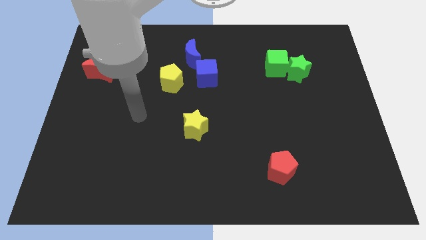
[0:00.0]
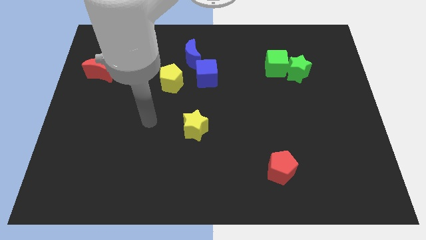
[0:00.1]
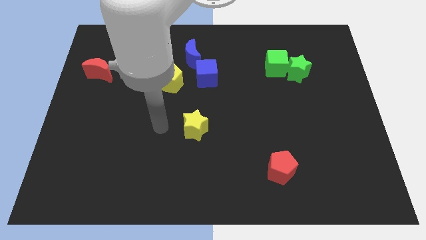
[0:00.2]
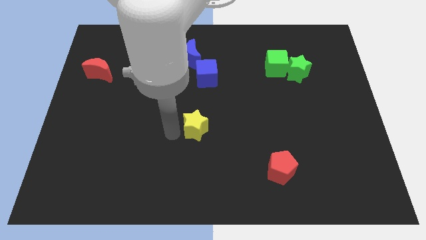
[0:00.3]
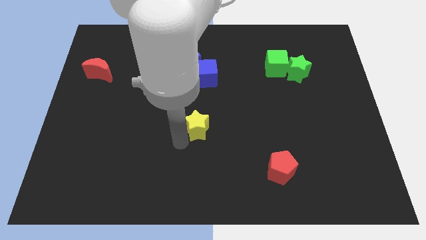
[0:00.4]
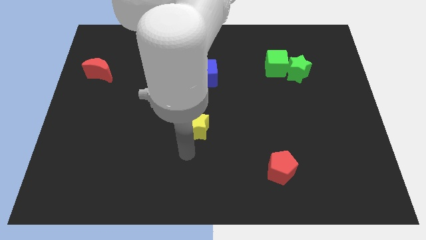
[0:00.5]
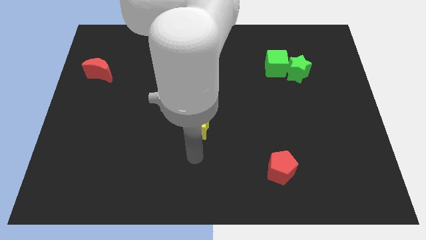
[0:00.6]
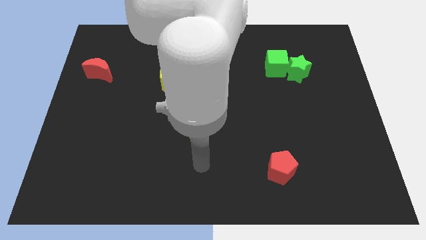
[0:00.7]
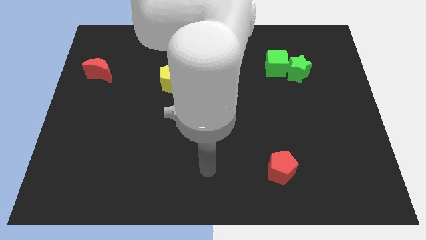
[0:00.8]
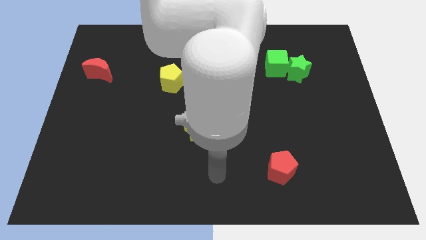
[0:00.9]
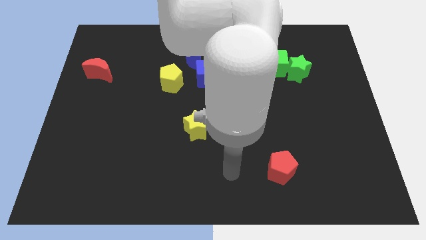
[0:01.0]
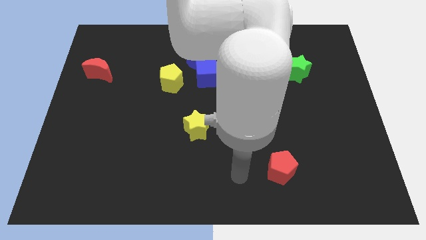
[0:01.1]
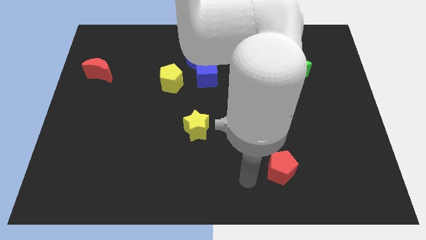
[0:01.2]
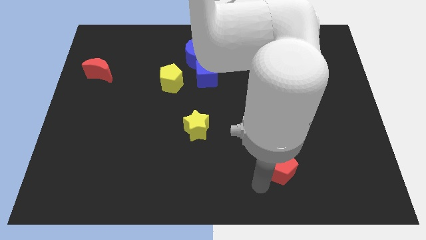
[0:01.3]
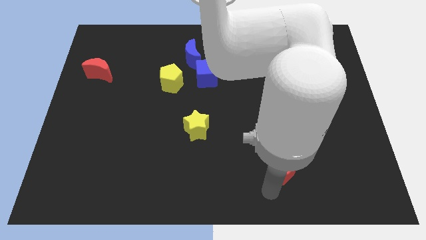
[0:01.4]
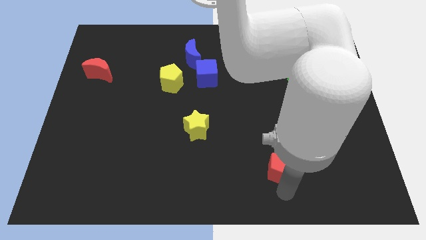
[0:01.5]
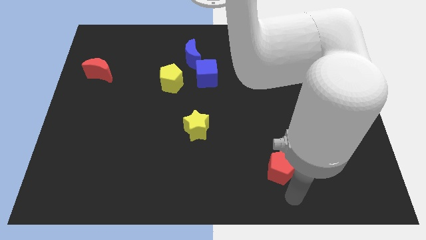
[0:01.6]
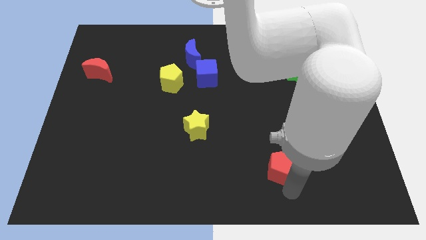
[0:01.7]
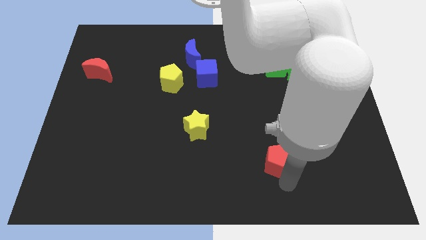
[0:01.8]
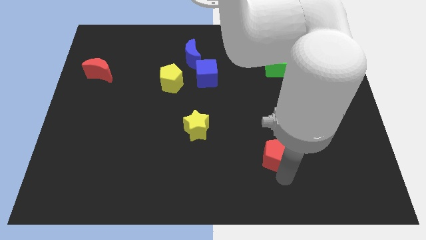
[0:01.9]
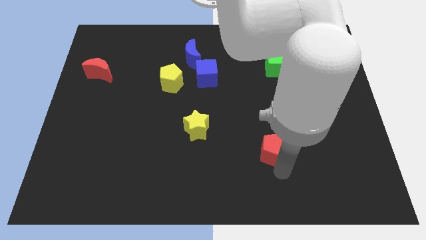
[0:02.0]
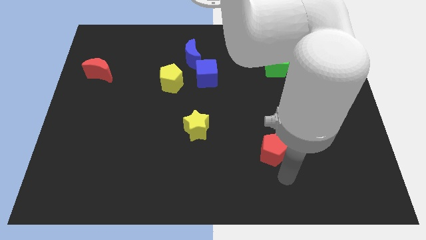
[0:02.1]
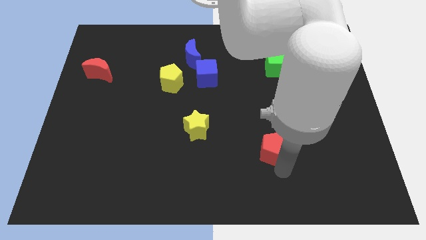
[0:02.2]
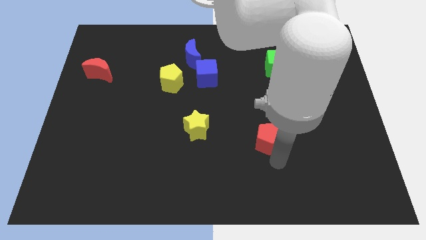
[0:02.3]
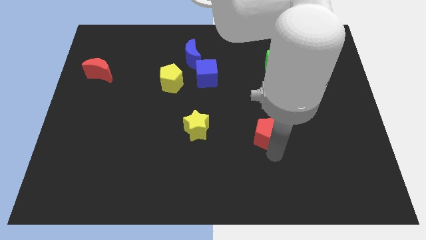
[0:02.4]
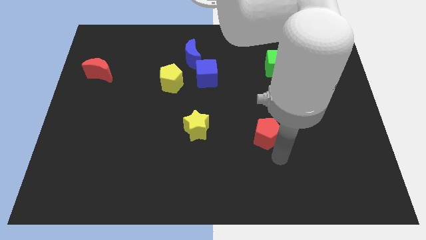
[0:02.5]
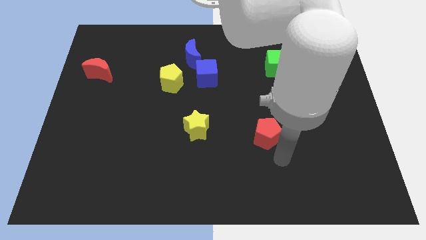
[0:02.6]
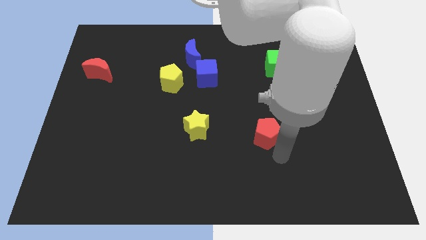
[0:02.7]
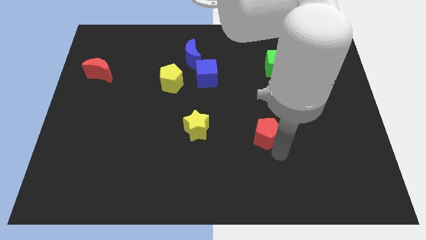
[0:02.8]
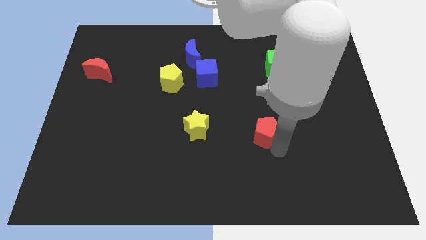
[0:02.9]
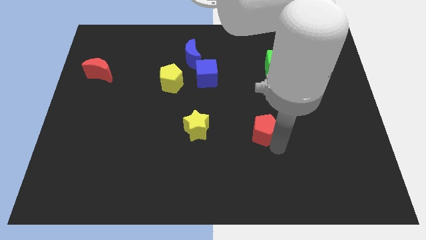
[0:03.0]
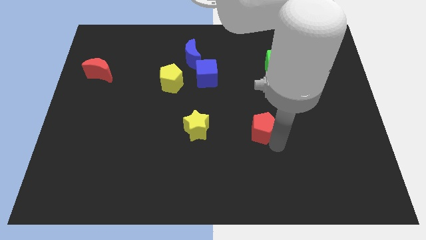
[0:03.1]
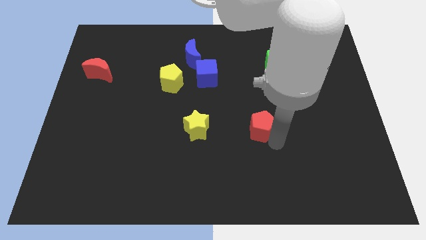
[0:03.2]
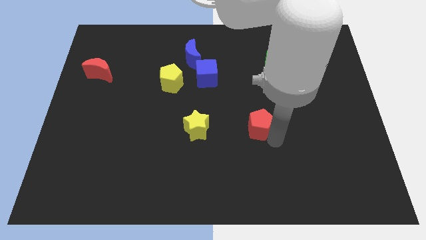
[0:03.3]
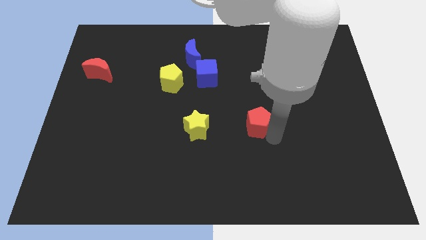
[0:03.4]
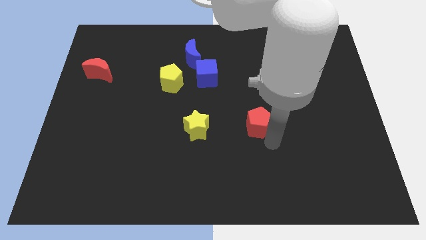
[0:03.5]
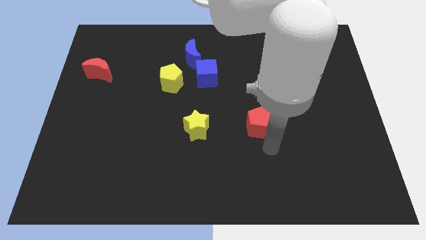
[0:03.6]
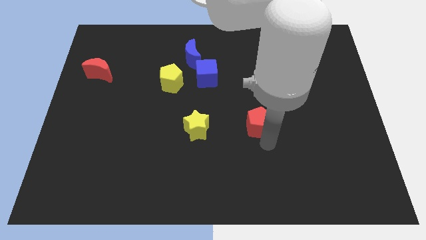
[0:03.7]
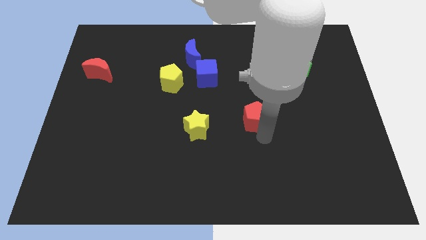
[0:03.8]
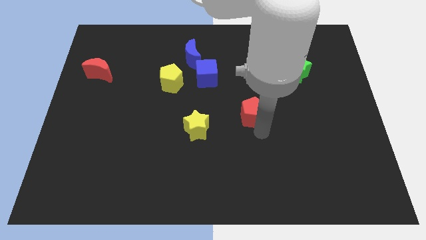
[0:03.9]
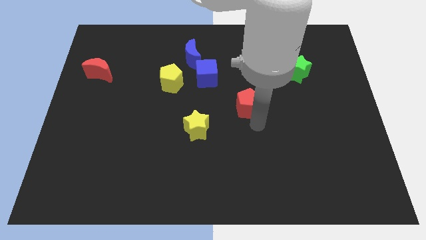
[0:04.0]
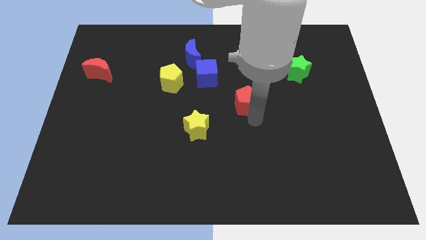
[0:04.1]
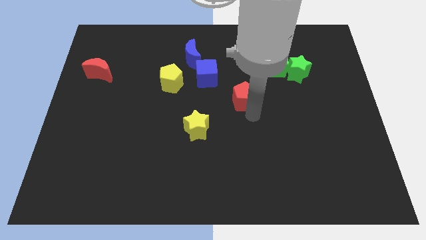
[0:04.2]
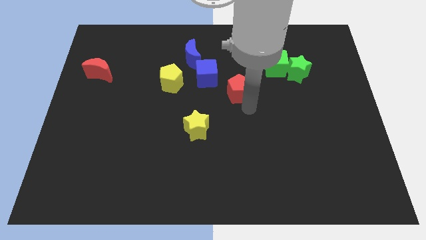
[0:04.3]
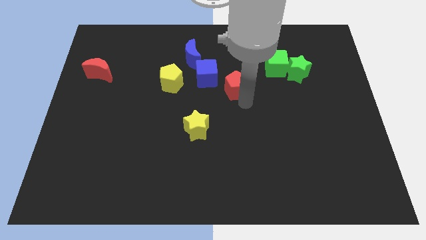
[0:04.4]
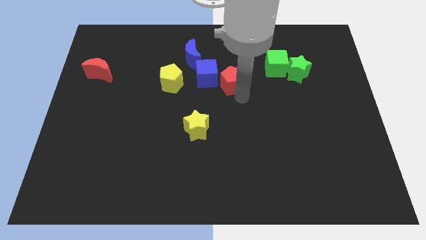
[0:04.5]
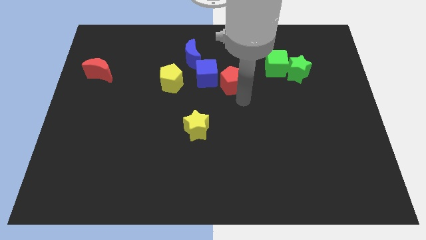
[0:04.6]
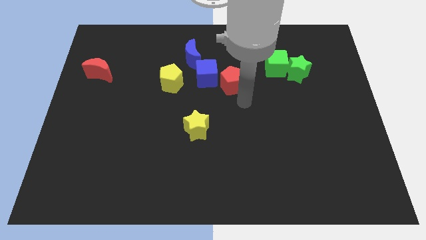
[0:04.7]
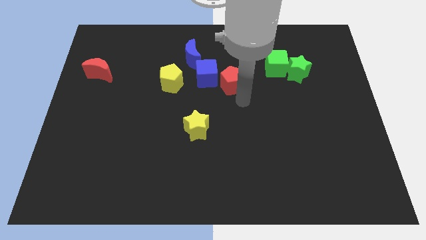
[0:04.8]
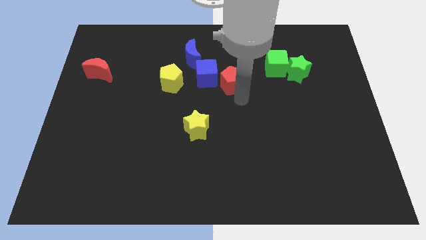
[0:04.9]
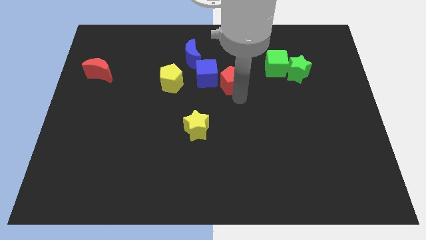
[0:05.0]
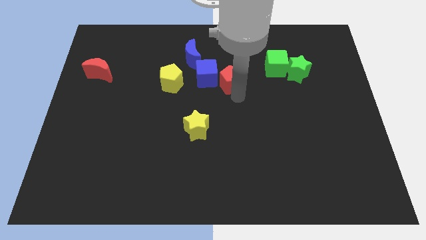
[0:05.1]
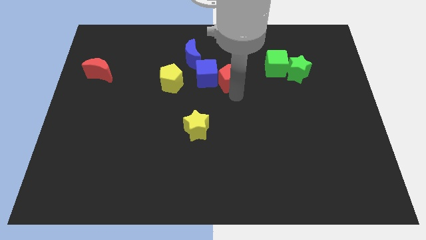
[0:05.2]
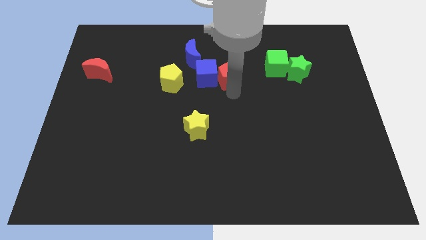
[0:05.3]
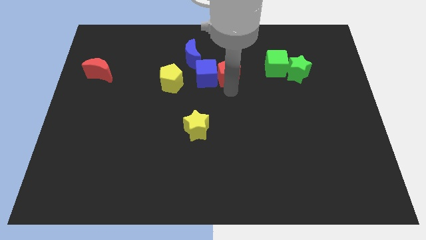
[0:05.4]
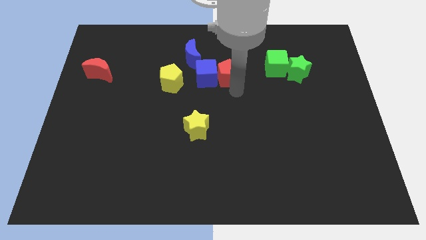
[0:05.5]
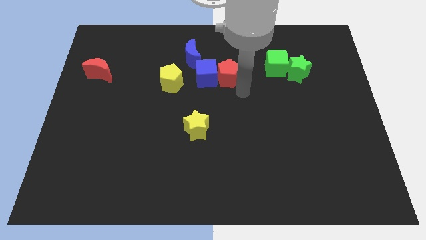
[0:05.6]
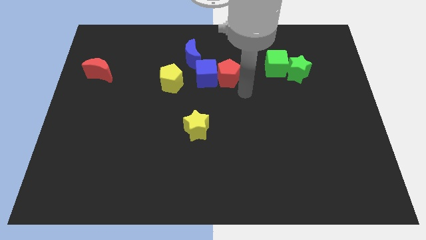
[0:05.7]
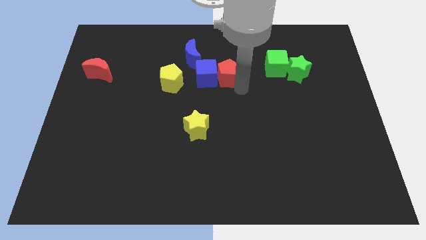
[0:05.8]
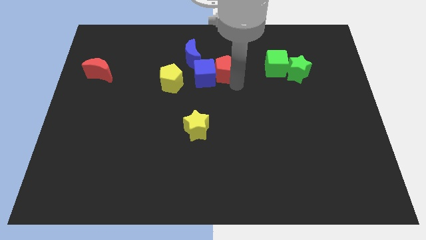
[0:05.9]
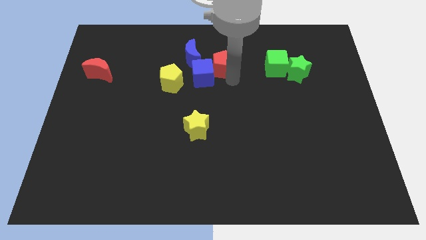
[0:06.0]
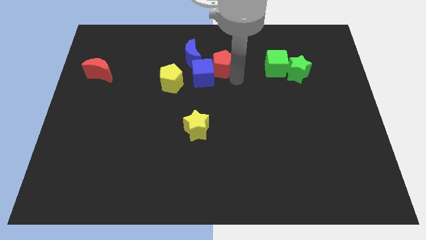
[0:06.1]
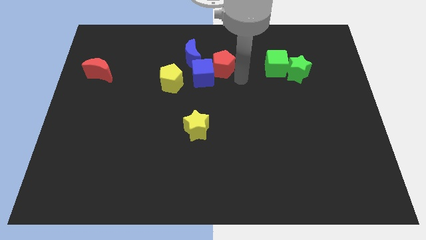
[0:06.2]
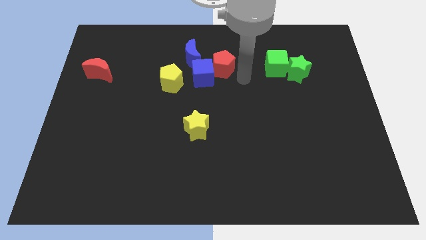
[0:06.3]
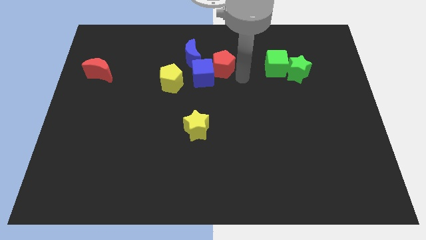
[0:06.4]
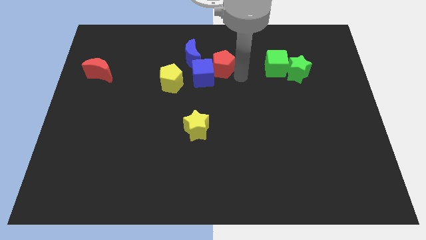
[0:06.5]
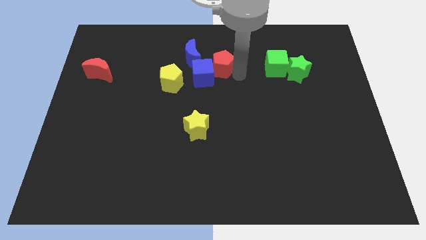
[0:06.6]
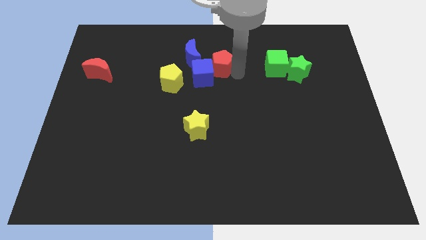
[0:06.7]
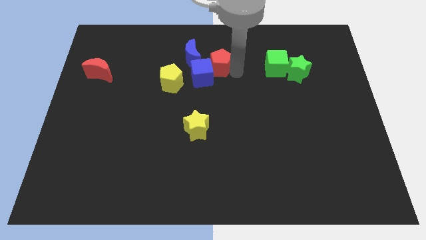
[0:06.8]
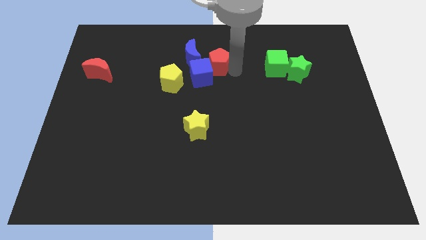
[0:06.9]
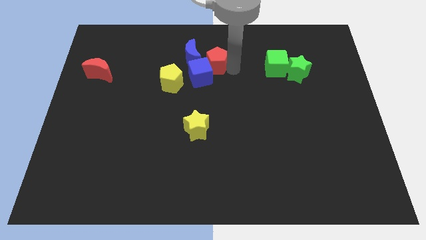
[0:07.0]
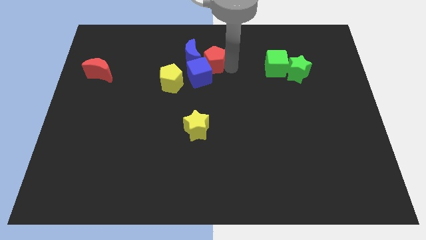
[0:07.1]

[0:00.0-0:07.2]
put the red pentagon to the blue moon

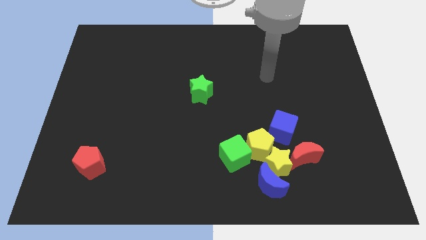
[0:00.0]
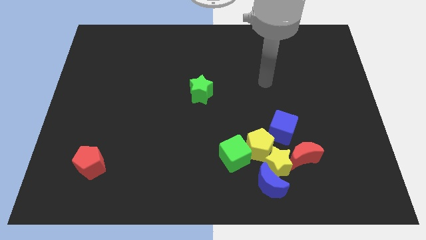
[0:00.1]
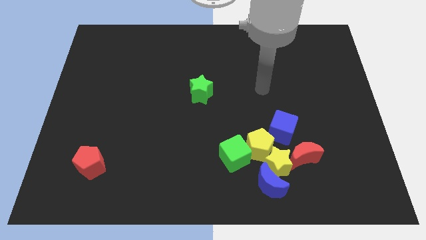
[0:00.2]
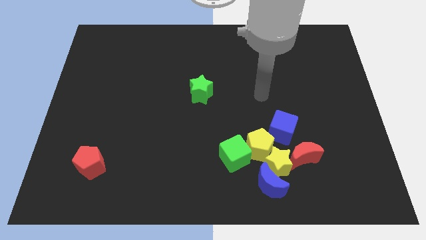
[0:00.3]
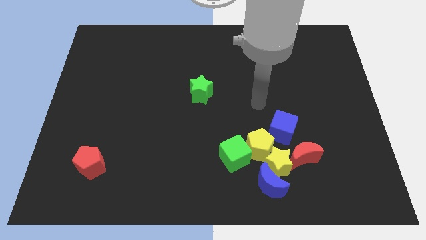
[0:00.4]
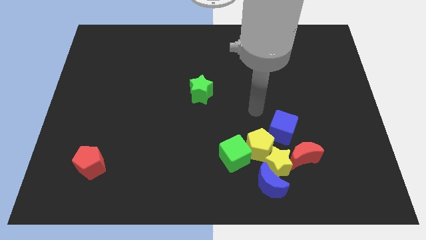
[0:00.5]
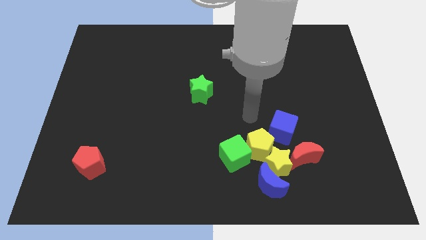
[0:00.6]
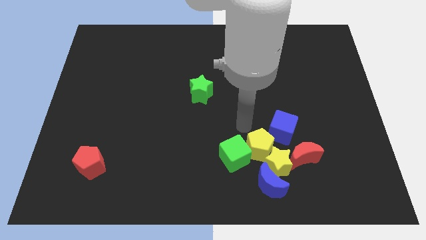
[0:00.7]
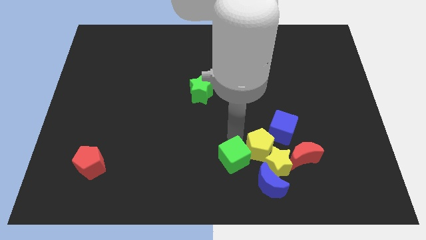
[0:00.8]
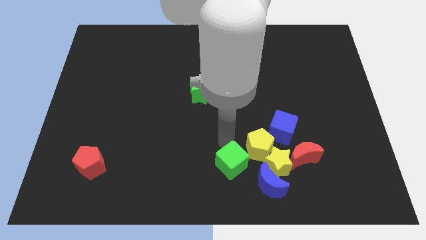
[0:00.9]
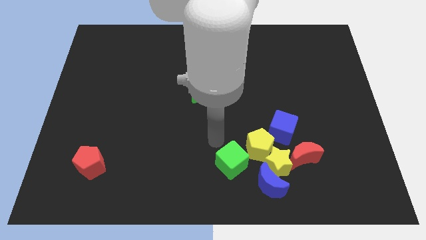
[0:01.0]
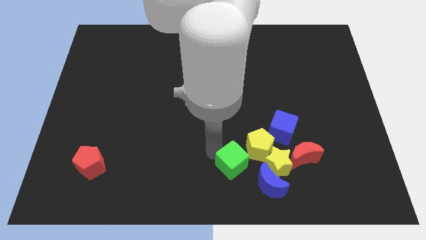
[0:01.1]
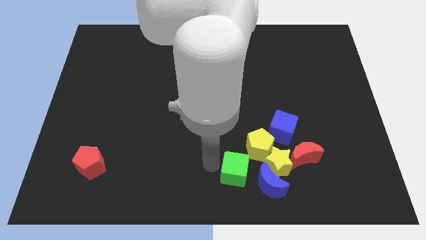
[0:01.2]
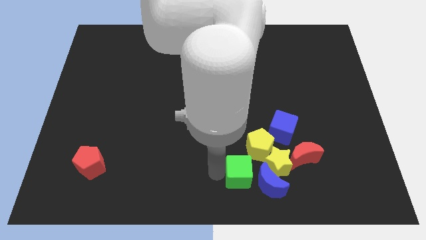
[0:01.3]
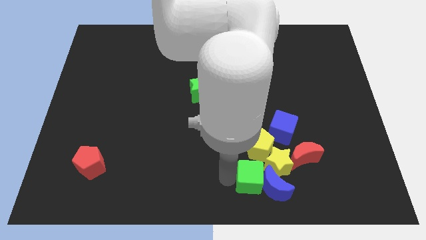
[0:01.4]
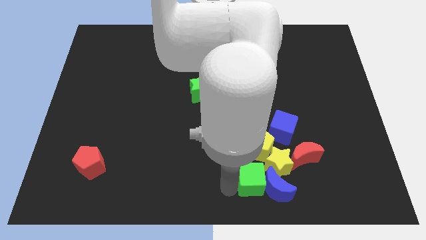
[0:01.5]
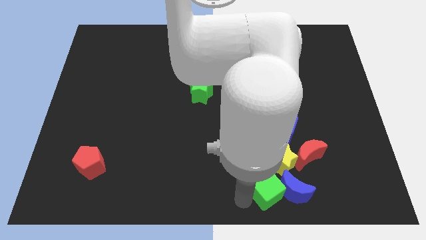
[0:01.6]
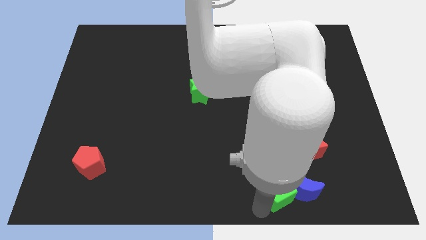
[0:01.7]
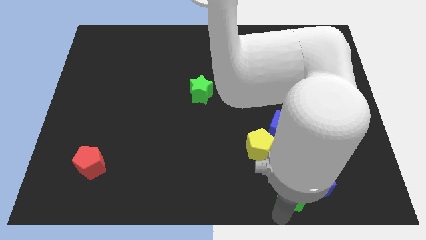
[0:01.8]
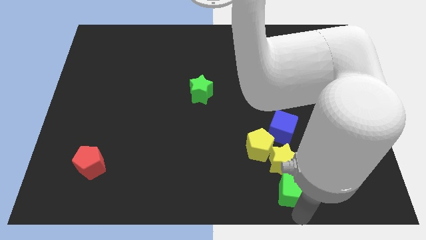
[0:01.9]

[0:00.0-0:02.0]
move the blue moon close to the red moon
